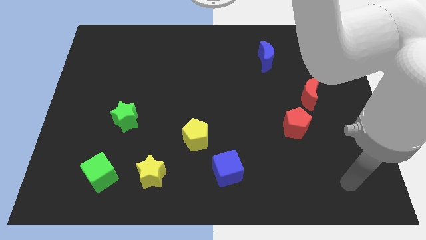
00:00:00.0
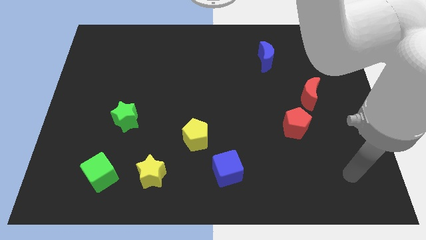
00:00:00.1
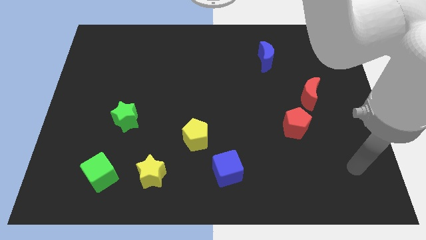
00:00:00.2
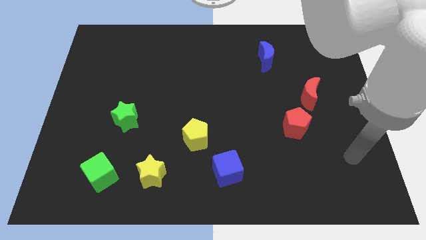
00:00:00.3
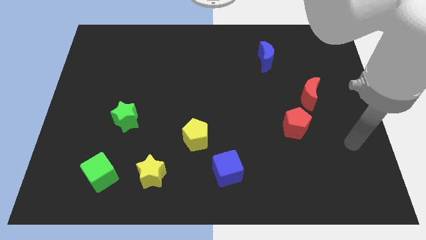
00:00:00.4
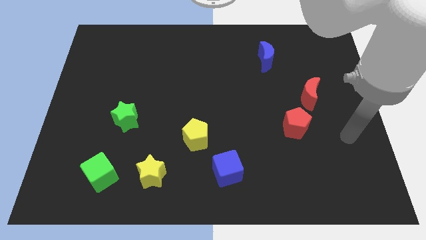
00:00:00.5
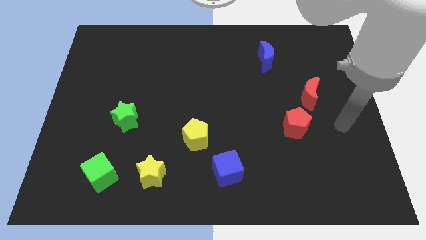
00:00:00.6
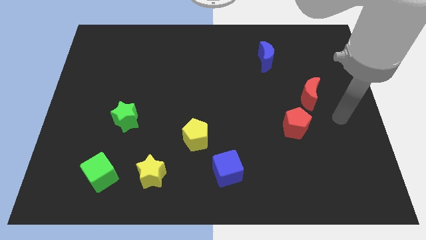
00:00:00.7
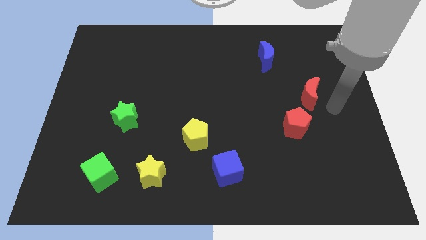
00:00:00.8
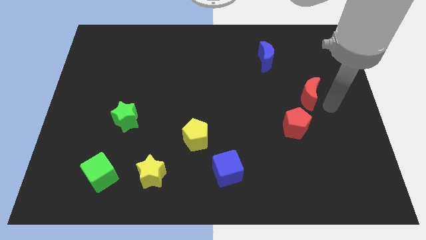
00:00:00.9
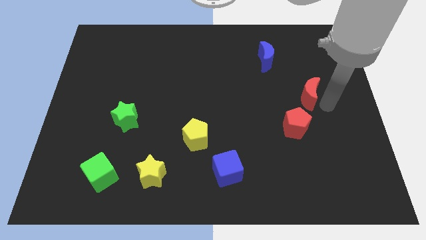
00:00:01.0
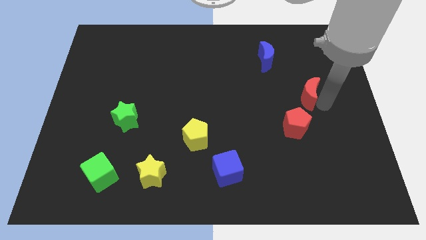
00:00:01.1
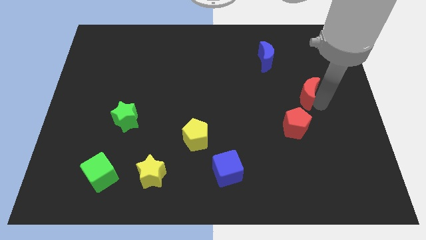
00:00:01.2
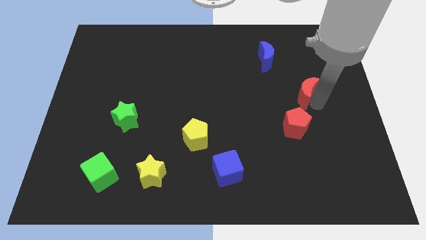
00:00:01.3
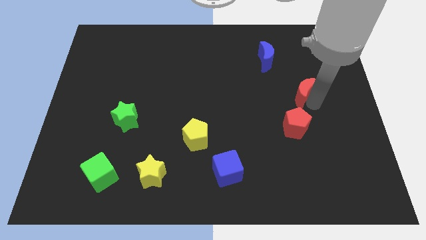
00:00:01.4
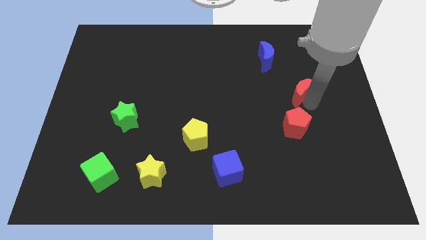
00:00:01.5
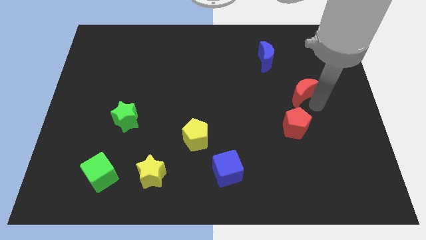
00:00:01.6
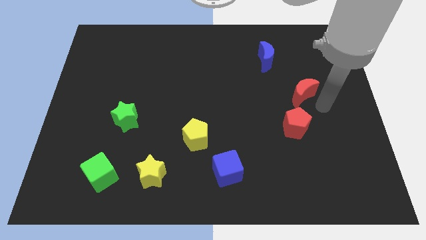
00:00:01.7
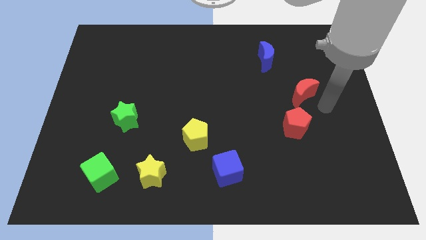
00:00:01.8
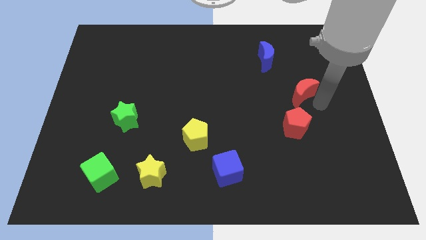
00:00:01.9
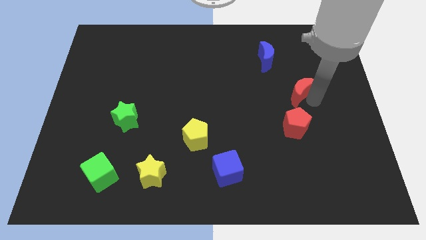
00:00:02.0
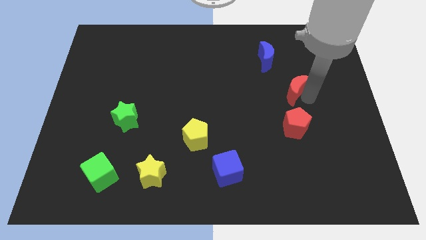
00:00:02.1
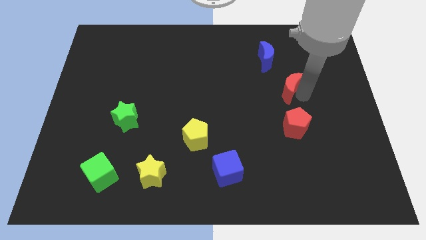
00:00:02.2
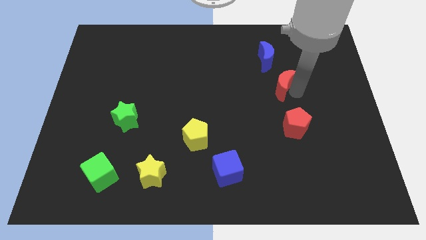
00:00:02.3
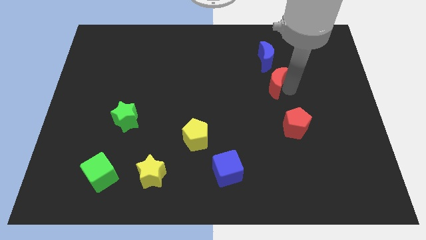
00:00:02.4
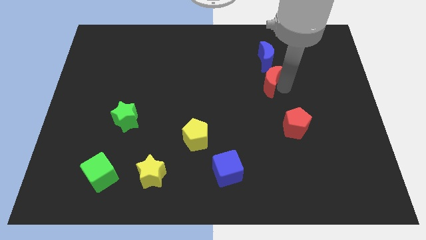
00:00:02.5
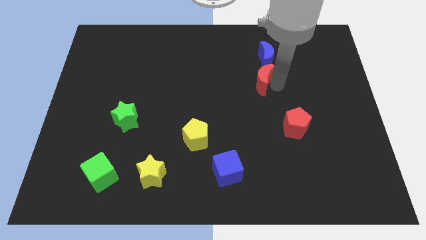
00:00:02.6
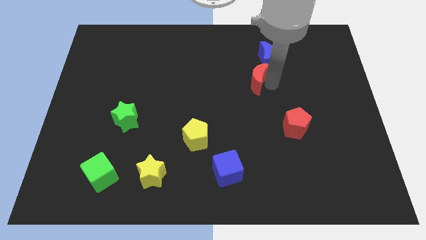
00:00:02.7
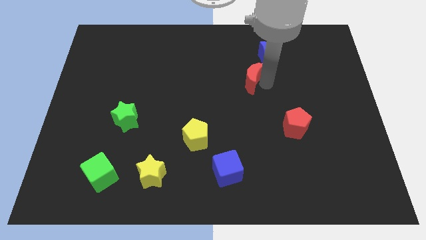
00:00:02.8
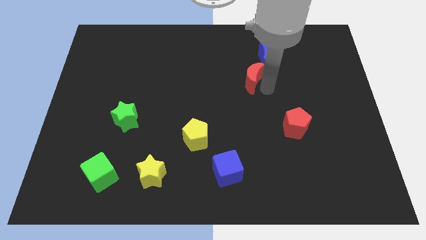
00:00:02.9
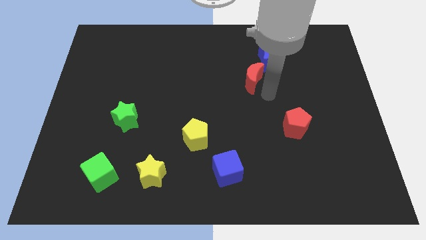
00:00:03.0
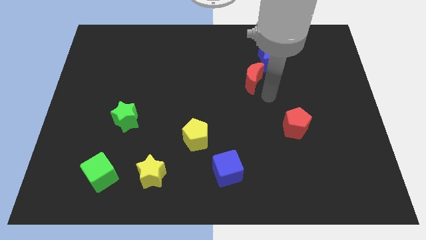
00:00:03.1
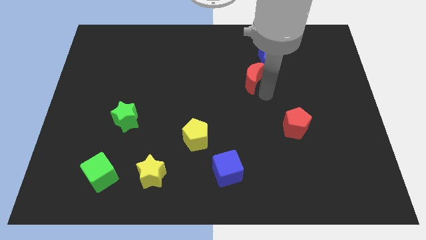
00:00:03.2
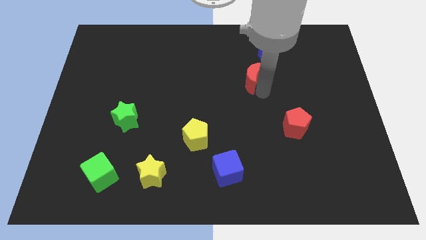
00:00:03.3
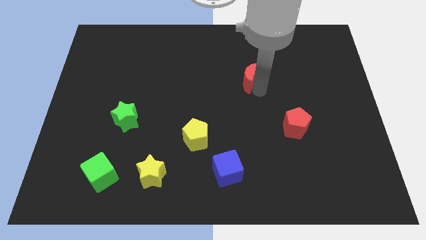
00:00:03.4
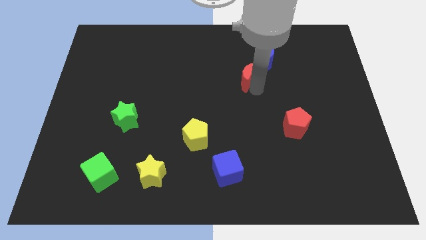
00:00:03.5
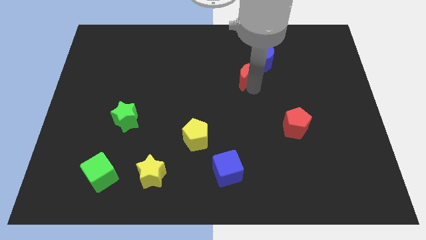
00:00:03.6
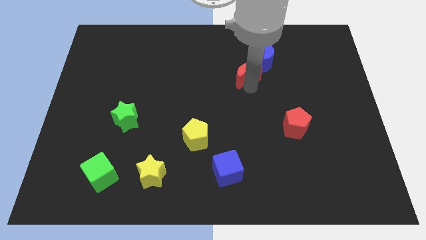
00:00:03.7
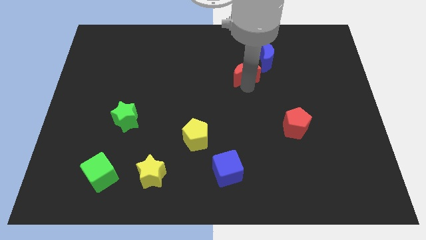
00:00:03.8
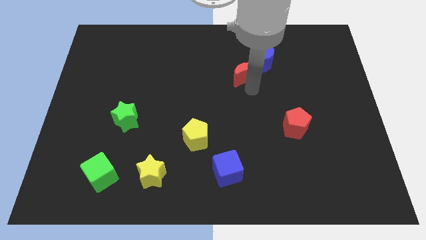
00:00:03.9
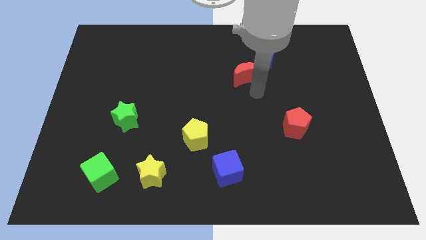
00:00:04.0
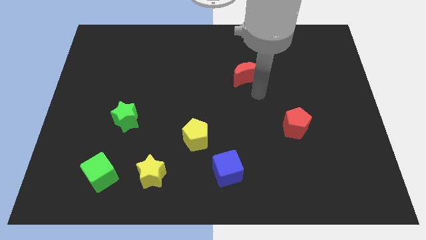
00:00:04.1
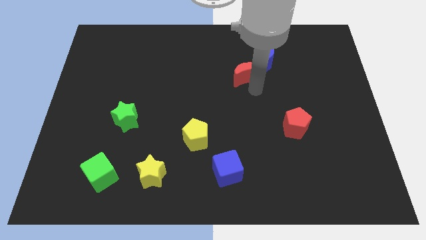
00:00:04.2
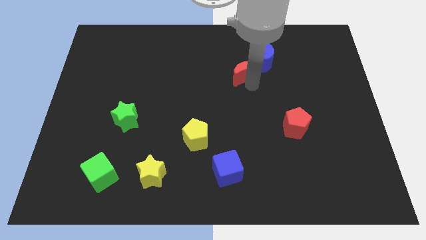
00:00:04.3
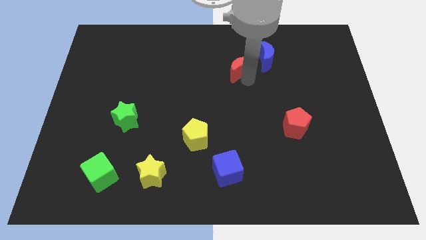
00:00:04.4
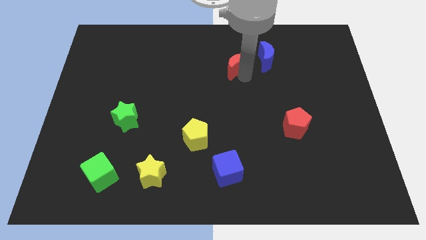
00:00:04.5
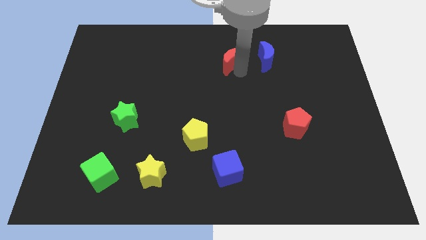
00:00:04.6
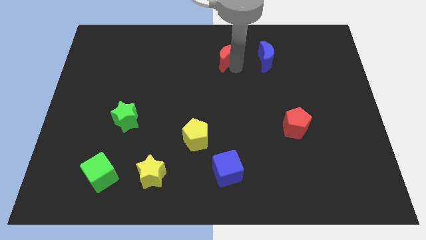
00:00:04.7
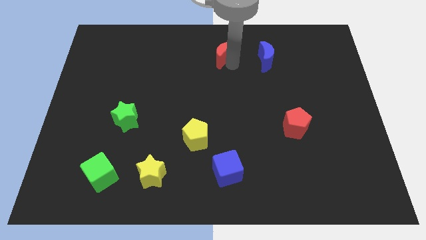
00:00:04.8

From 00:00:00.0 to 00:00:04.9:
slide the red moon to the towards your base

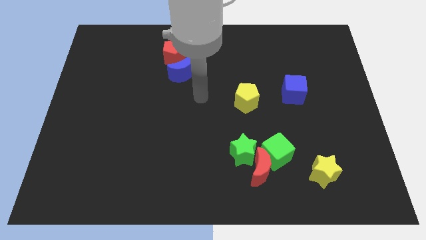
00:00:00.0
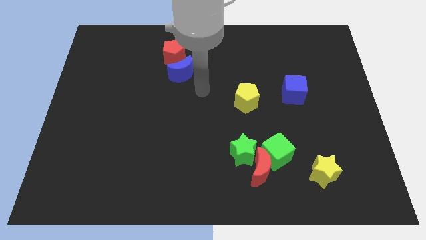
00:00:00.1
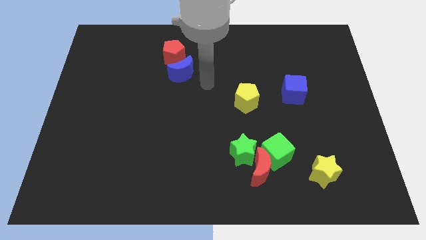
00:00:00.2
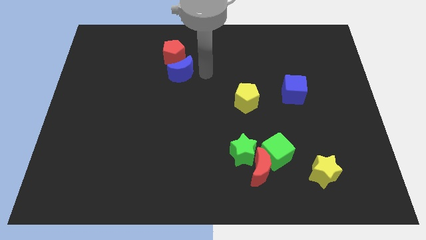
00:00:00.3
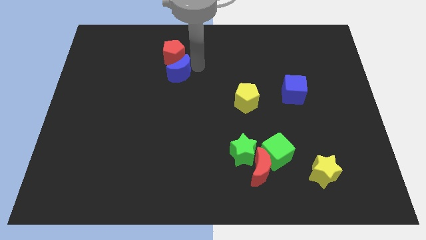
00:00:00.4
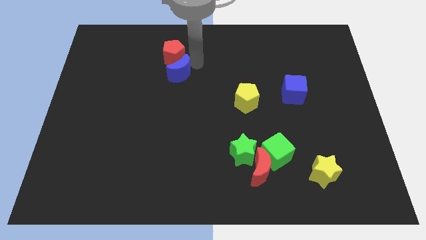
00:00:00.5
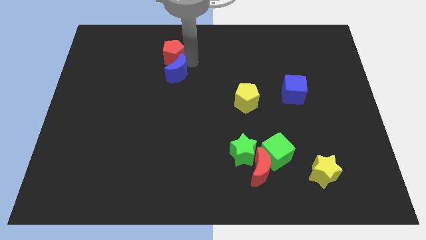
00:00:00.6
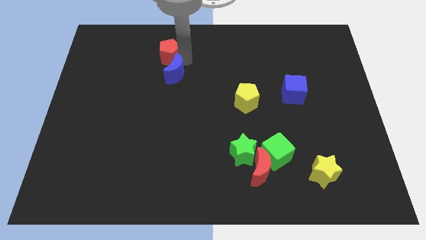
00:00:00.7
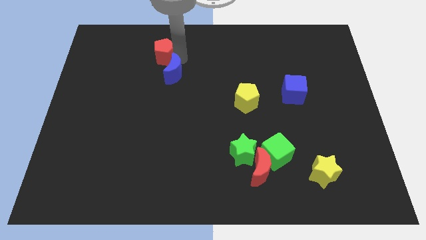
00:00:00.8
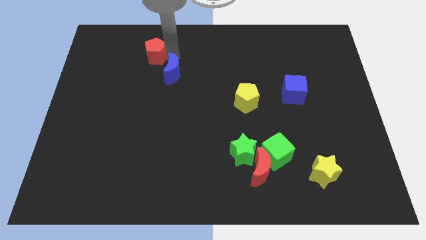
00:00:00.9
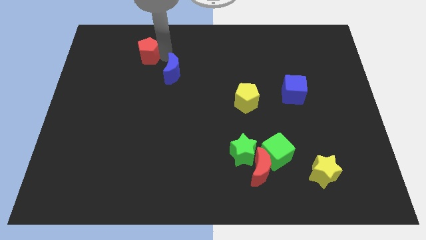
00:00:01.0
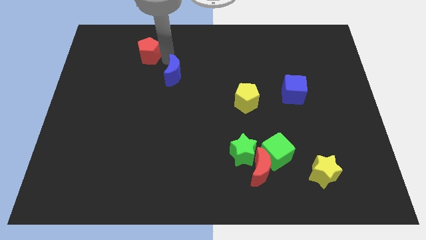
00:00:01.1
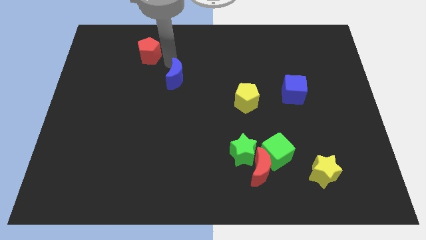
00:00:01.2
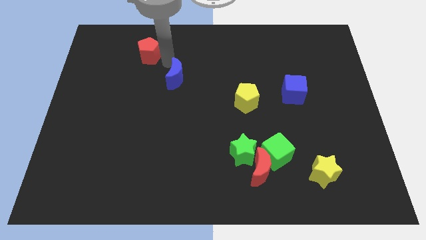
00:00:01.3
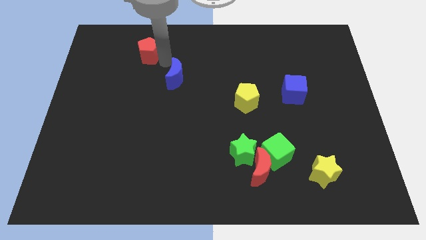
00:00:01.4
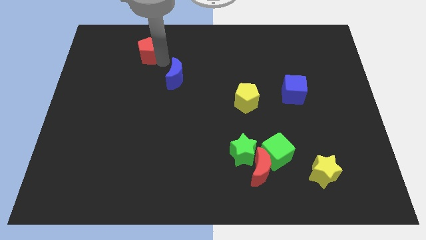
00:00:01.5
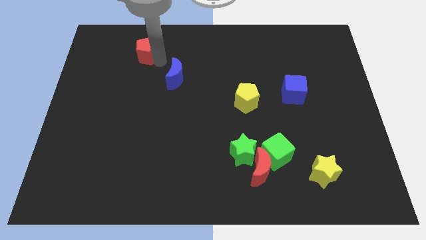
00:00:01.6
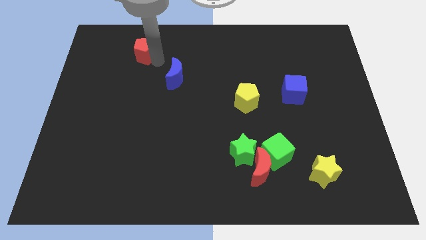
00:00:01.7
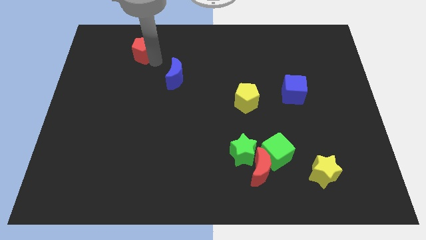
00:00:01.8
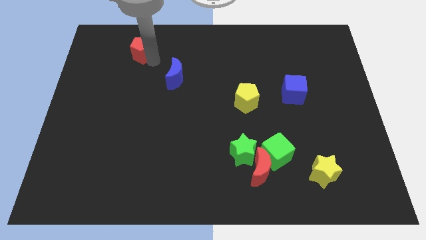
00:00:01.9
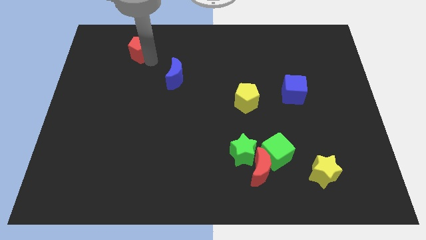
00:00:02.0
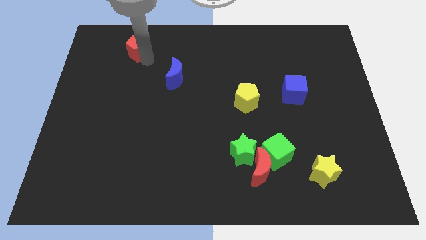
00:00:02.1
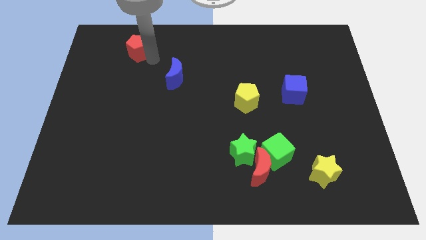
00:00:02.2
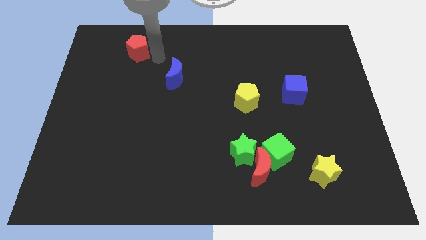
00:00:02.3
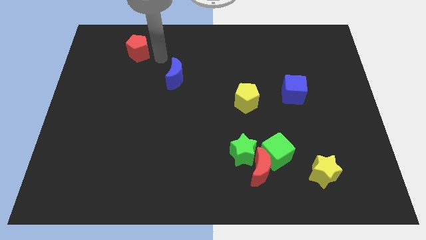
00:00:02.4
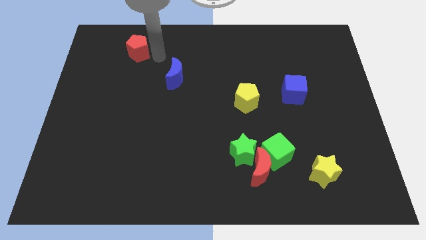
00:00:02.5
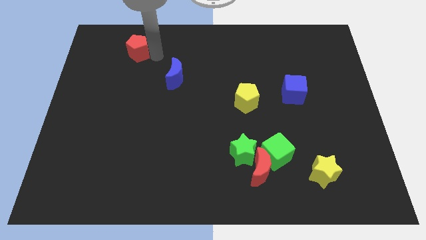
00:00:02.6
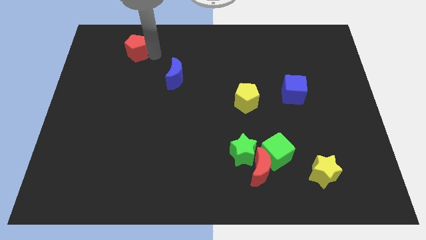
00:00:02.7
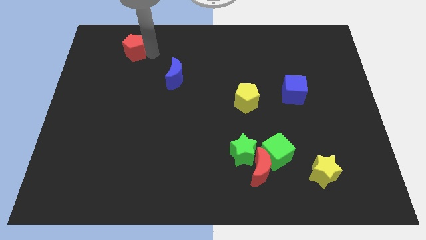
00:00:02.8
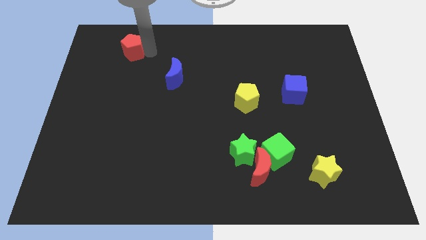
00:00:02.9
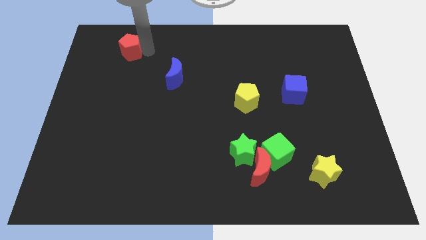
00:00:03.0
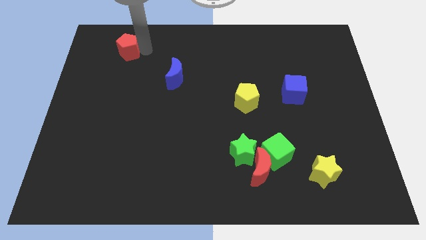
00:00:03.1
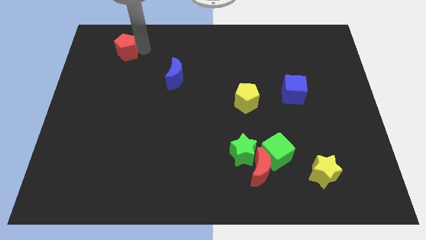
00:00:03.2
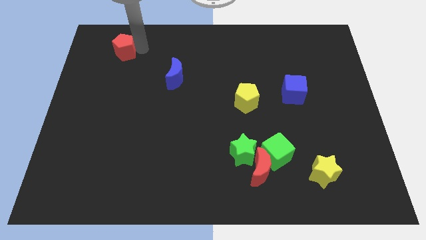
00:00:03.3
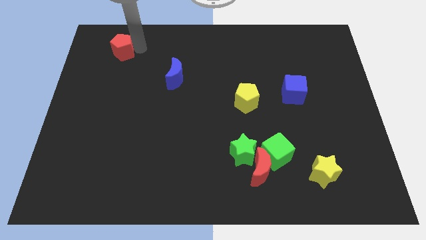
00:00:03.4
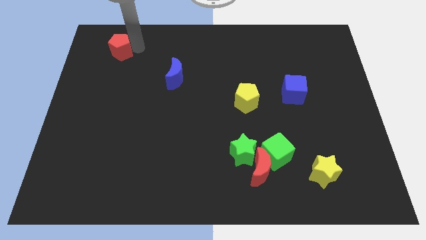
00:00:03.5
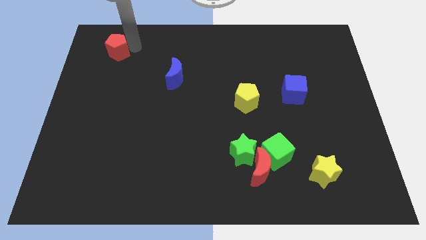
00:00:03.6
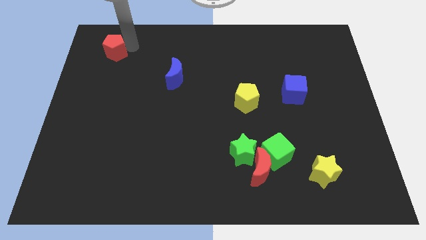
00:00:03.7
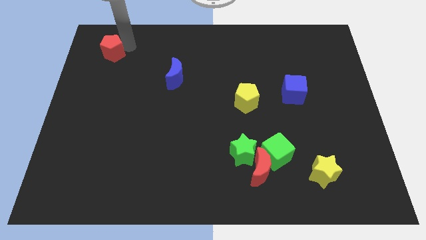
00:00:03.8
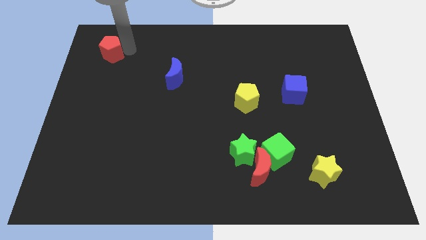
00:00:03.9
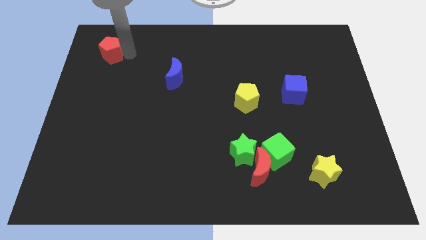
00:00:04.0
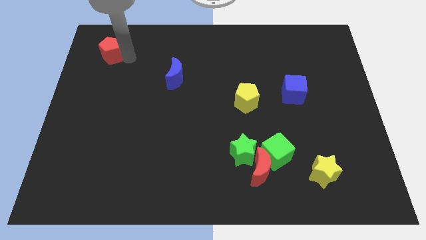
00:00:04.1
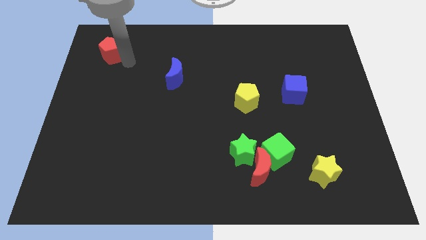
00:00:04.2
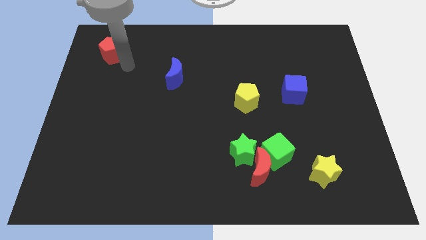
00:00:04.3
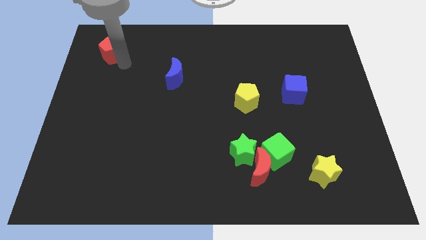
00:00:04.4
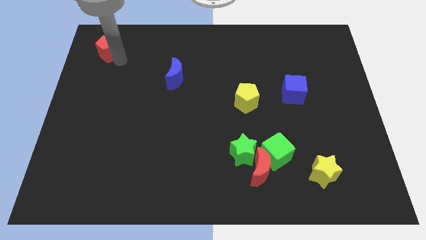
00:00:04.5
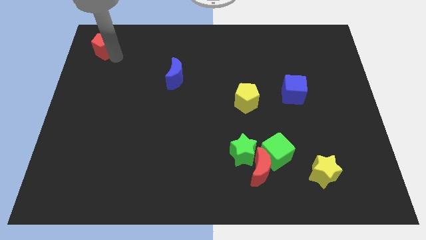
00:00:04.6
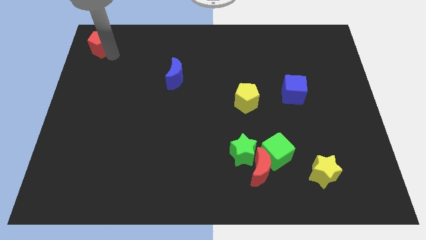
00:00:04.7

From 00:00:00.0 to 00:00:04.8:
move the red pentagon to the top left corner
